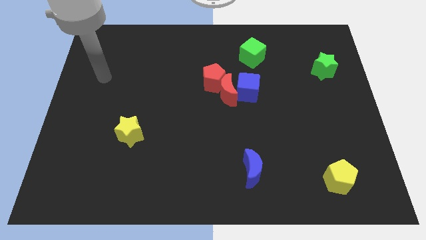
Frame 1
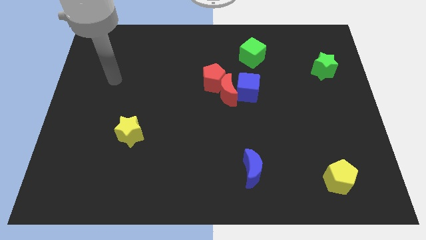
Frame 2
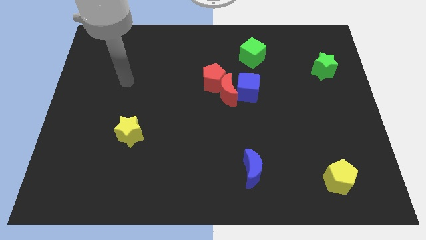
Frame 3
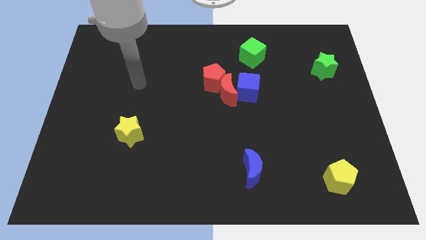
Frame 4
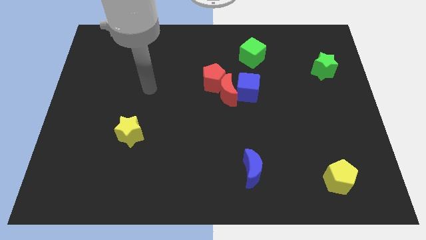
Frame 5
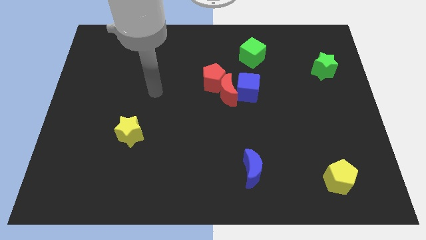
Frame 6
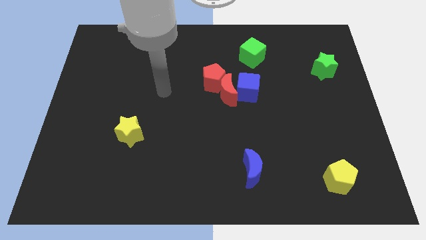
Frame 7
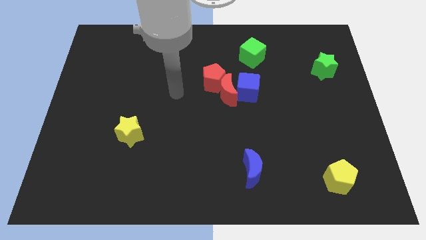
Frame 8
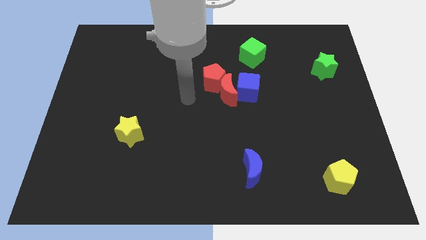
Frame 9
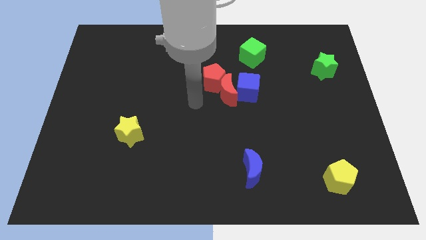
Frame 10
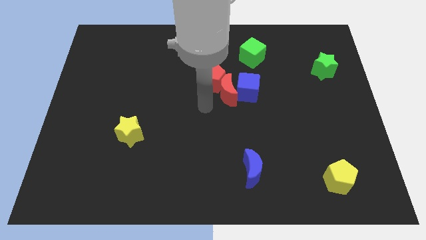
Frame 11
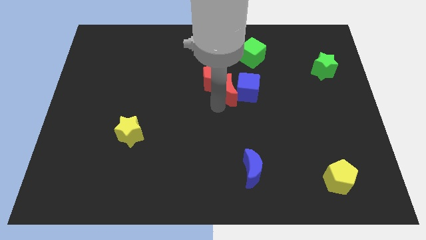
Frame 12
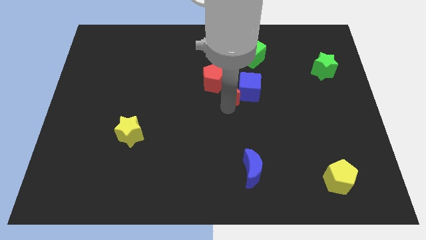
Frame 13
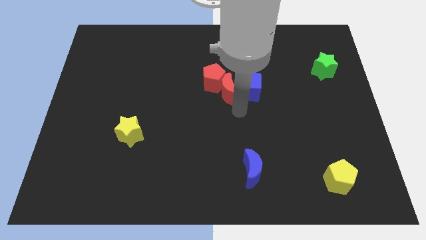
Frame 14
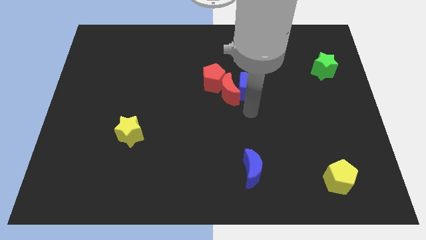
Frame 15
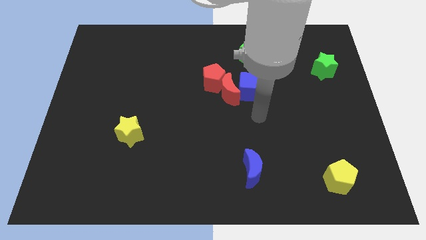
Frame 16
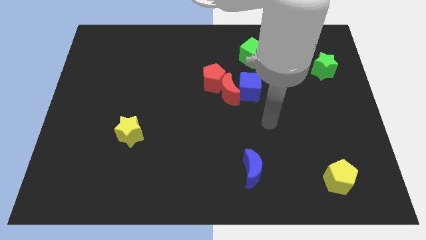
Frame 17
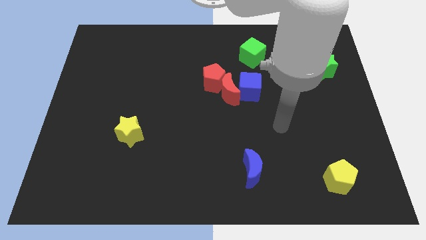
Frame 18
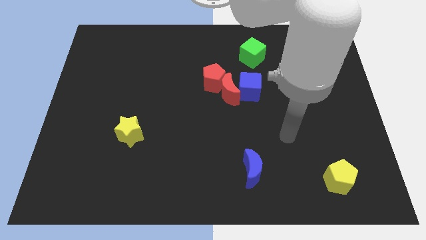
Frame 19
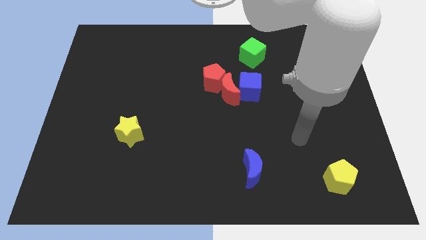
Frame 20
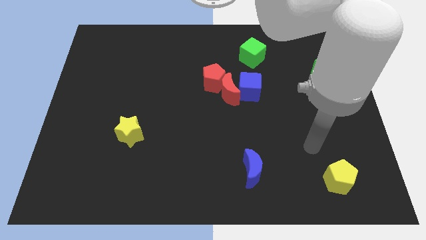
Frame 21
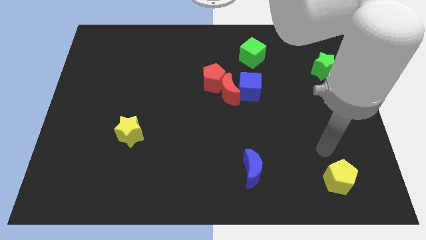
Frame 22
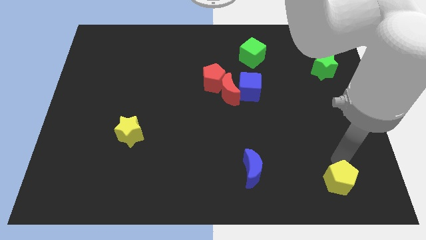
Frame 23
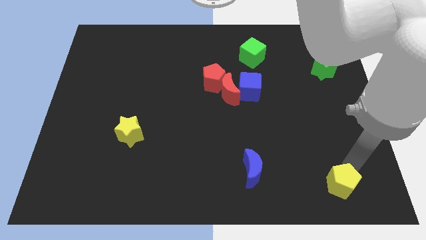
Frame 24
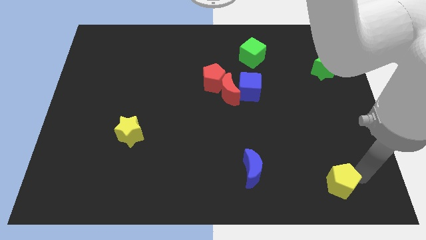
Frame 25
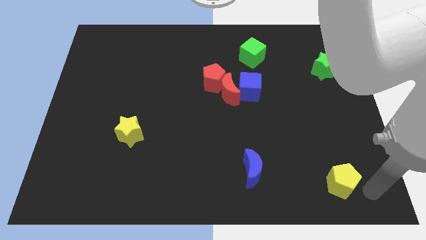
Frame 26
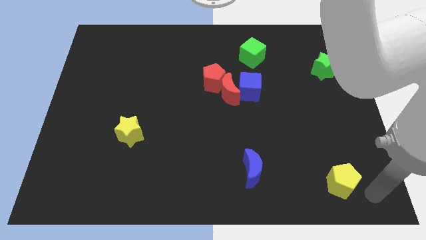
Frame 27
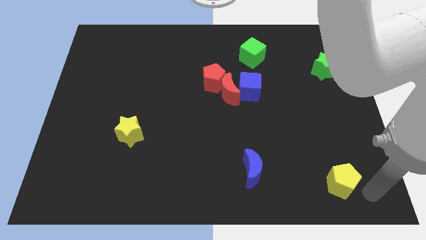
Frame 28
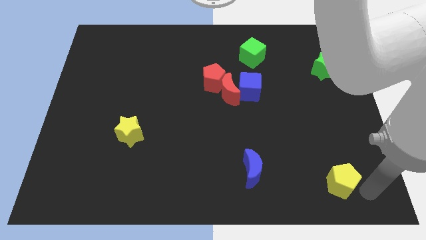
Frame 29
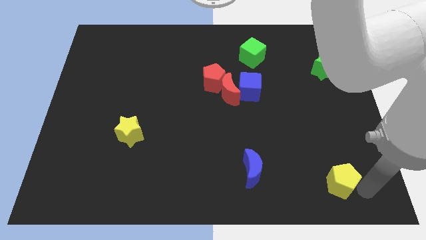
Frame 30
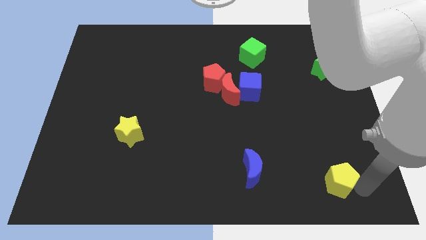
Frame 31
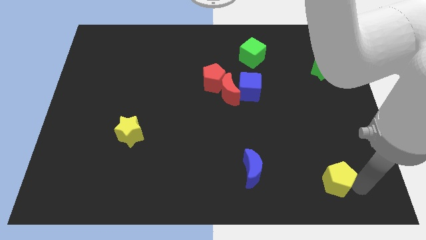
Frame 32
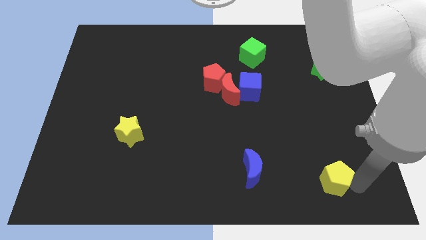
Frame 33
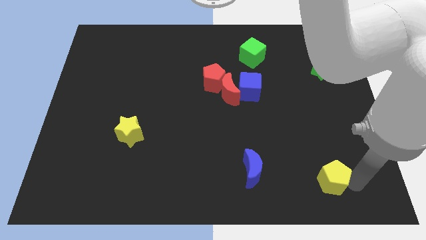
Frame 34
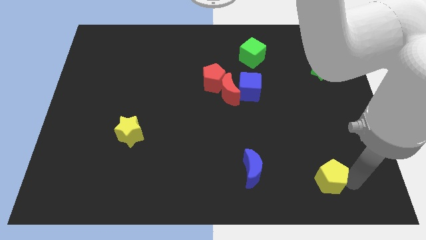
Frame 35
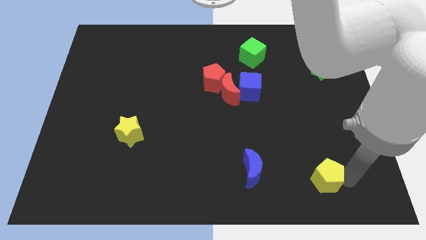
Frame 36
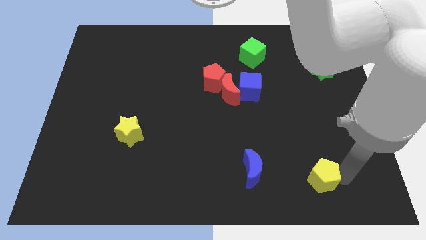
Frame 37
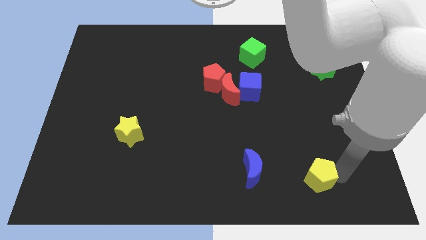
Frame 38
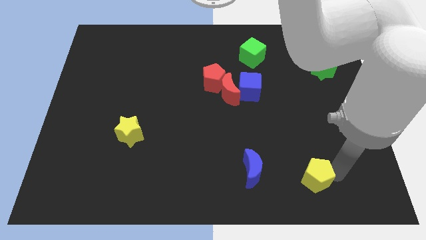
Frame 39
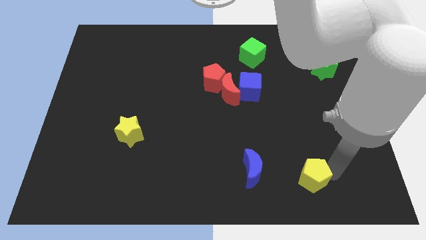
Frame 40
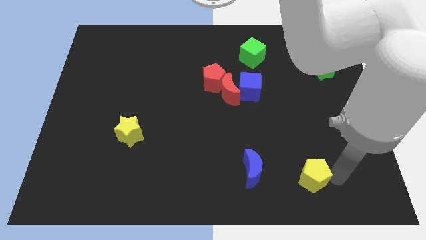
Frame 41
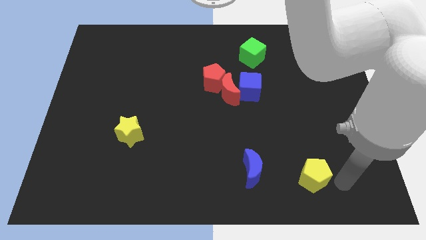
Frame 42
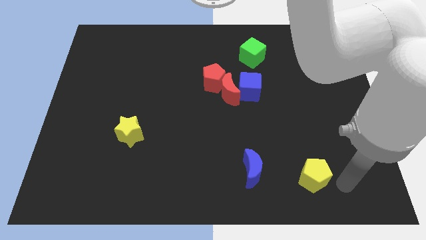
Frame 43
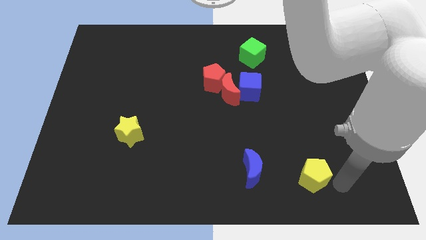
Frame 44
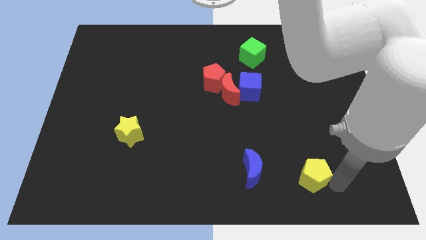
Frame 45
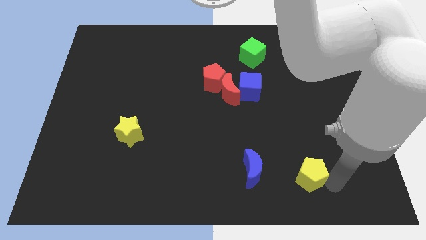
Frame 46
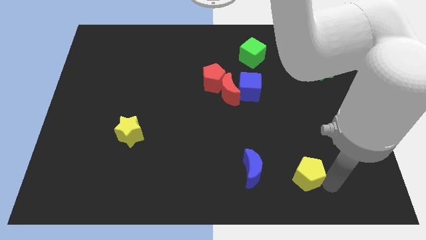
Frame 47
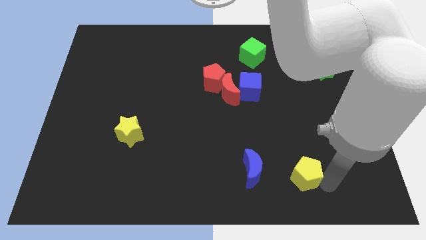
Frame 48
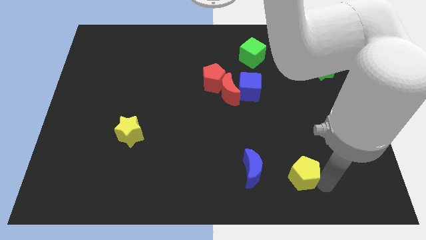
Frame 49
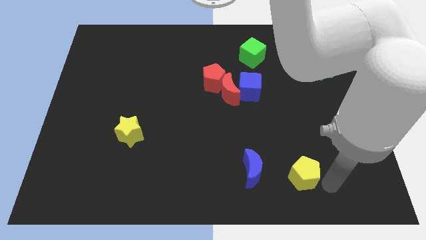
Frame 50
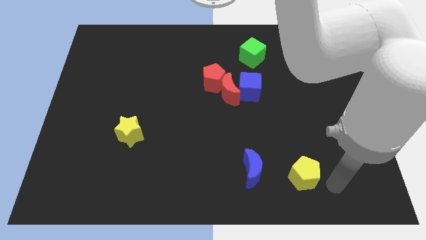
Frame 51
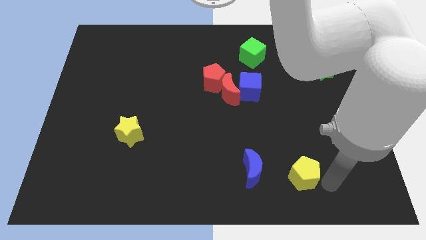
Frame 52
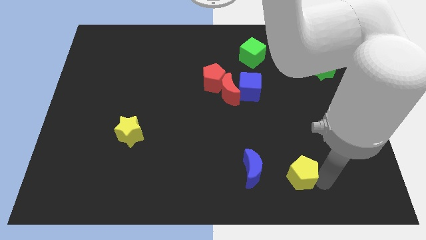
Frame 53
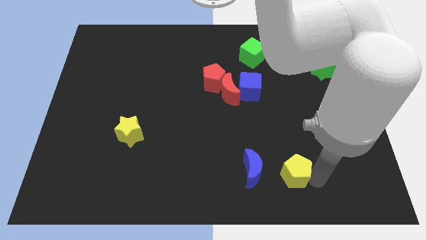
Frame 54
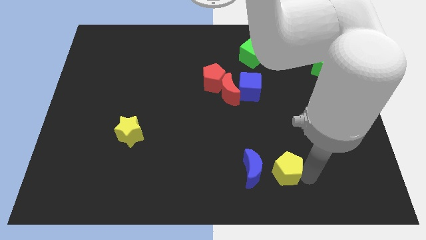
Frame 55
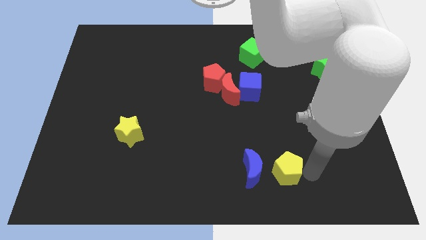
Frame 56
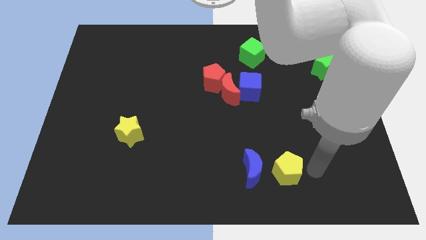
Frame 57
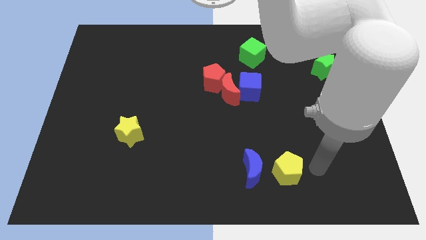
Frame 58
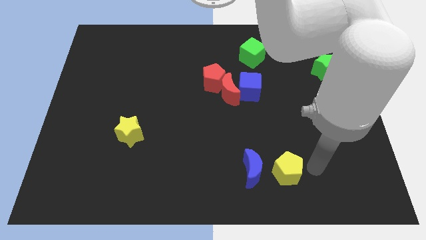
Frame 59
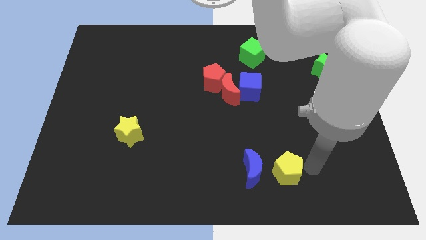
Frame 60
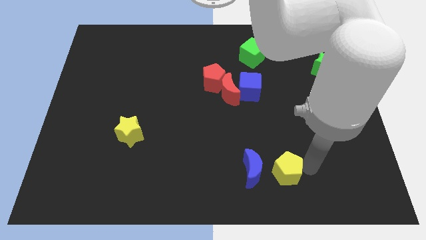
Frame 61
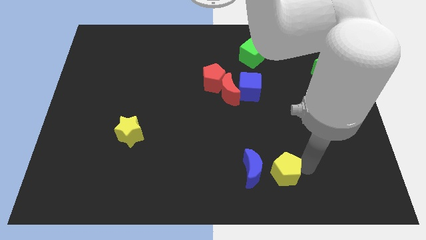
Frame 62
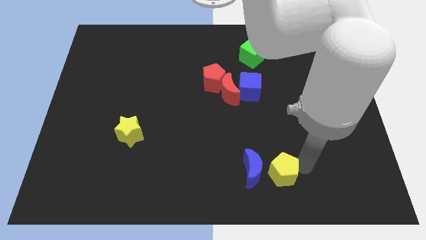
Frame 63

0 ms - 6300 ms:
put the yellow pentagon towards the blue moon

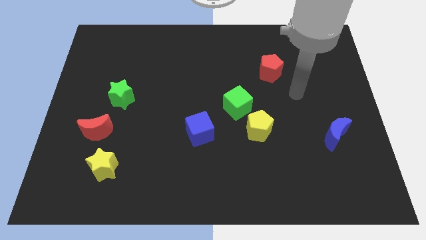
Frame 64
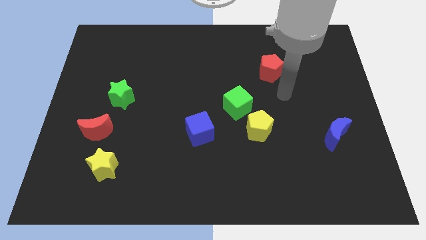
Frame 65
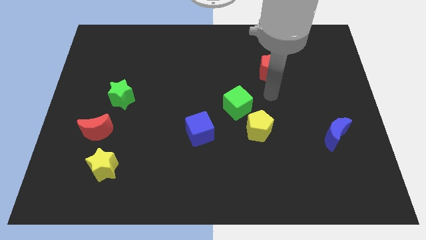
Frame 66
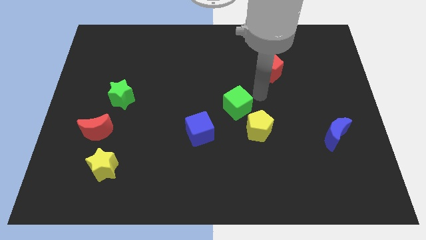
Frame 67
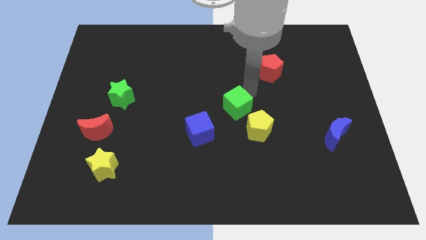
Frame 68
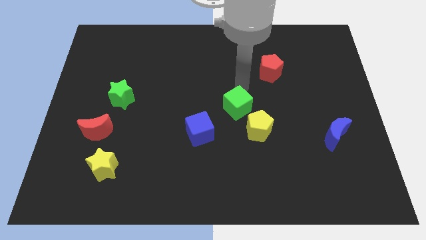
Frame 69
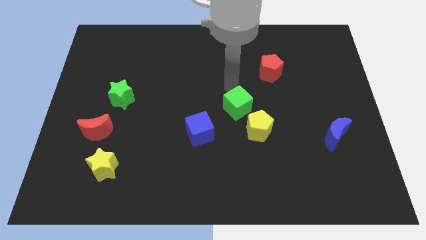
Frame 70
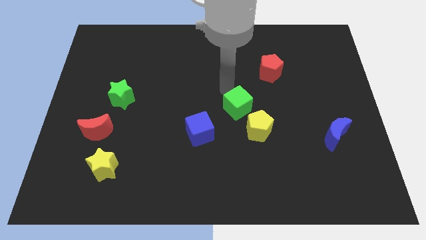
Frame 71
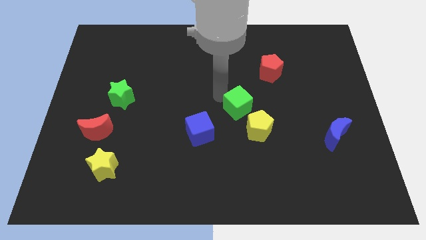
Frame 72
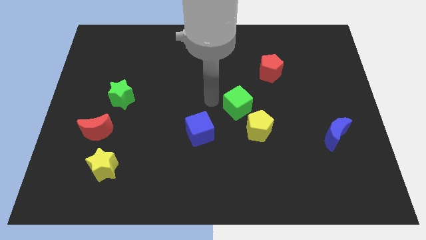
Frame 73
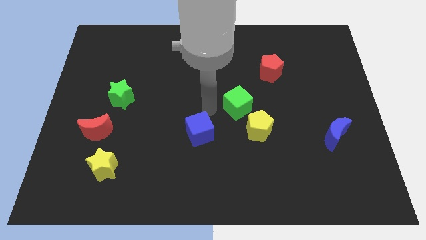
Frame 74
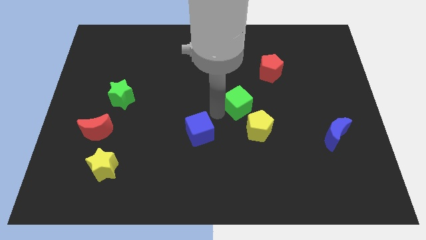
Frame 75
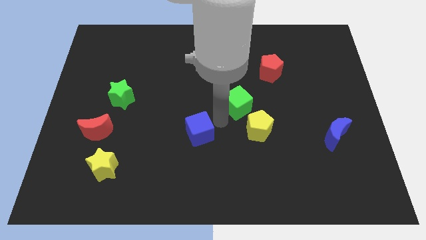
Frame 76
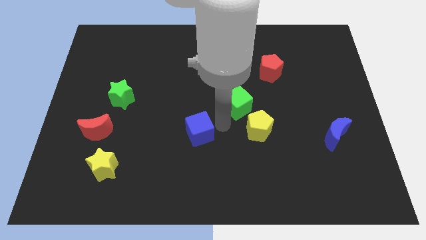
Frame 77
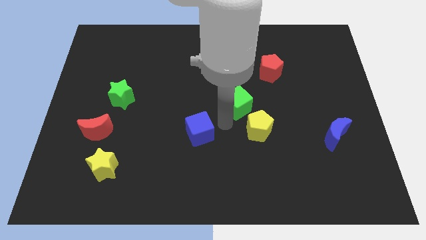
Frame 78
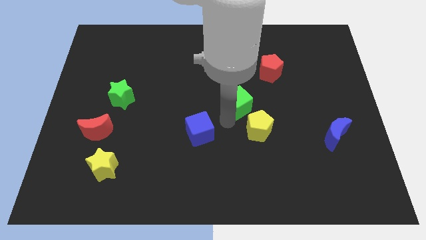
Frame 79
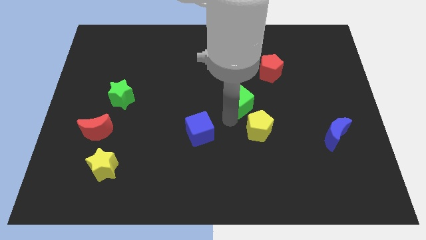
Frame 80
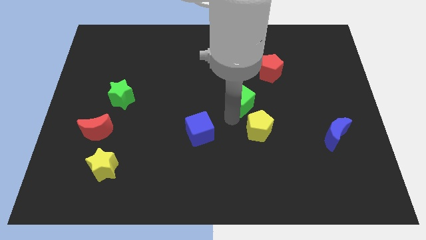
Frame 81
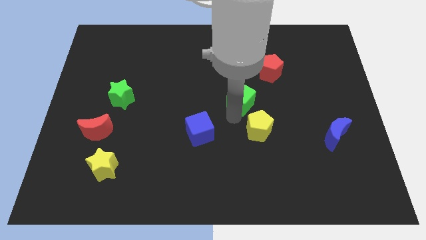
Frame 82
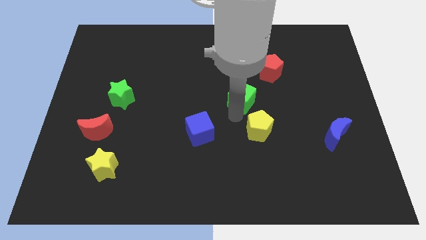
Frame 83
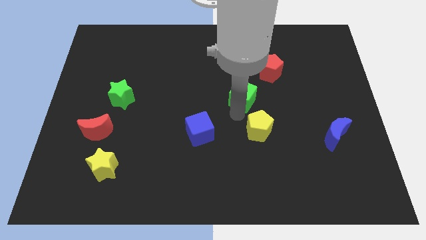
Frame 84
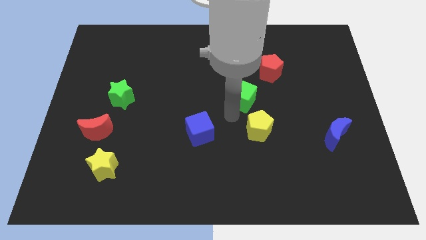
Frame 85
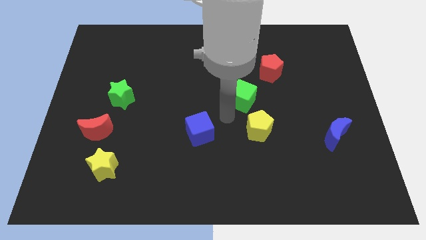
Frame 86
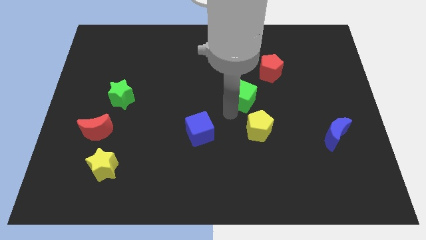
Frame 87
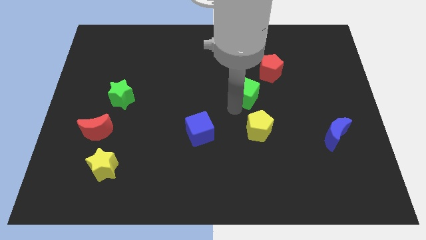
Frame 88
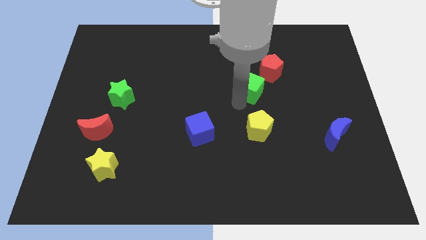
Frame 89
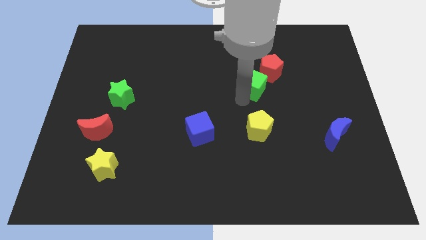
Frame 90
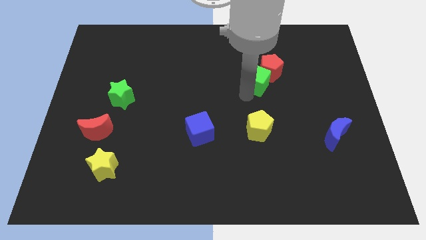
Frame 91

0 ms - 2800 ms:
move the green cube to the red pentagon
